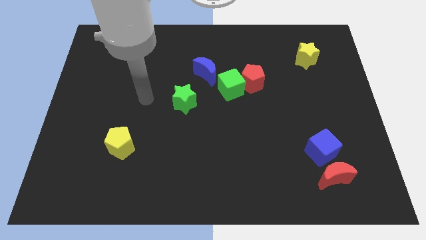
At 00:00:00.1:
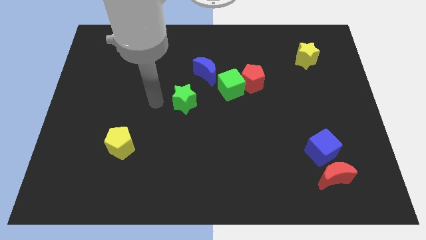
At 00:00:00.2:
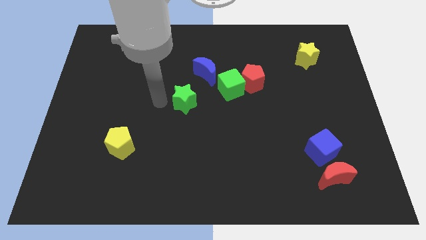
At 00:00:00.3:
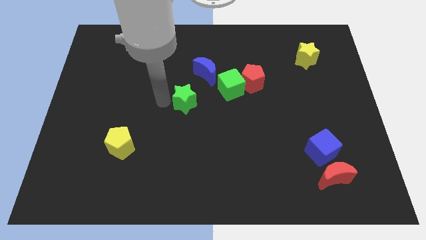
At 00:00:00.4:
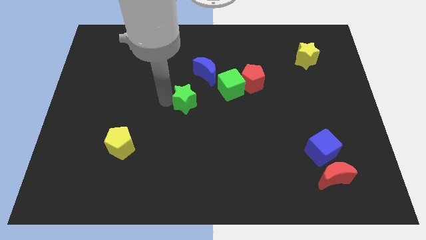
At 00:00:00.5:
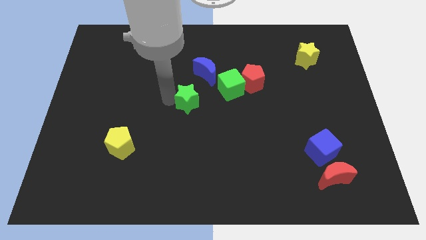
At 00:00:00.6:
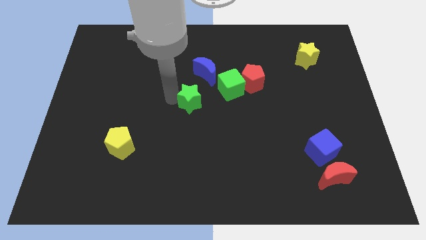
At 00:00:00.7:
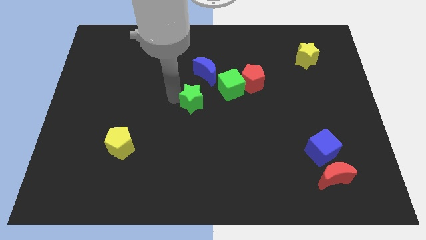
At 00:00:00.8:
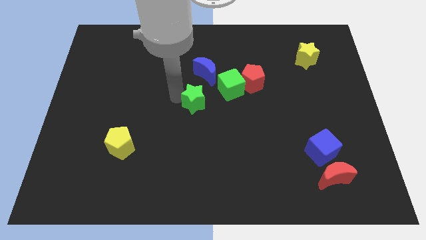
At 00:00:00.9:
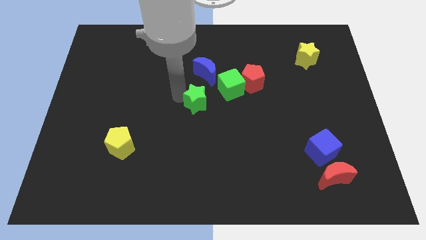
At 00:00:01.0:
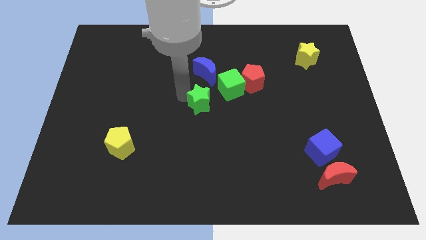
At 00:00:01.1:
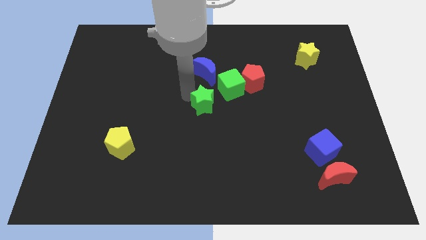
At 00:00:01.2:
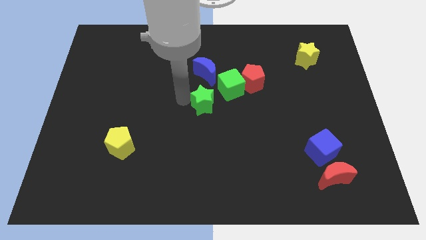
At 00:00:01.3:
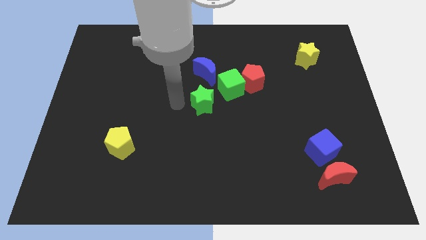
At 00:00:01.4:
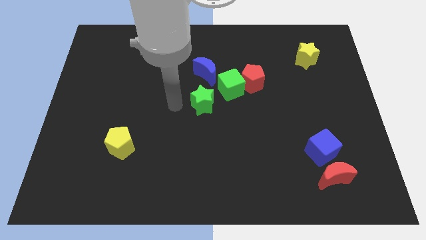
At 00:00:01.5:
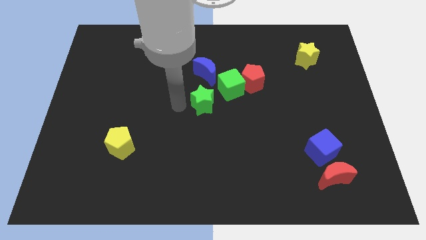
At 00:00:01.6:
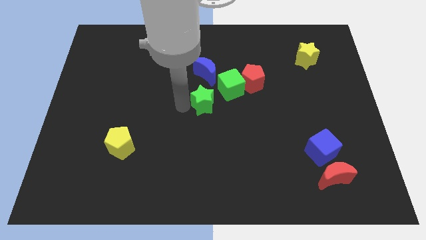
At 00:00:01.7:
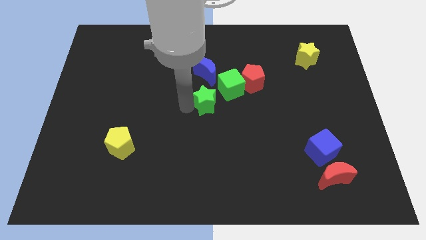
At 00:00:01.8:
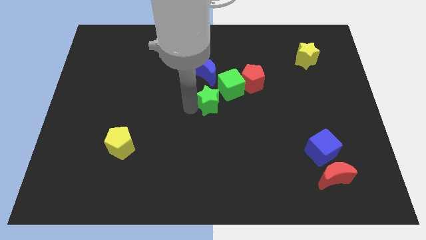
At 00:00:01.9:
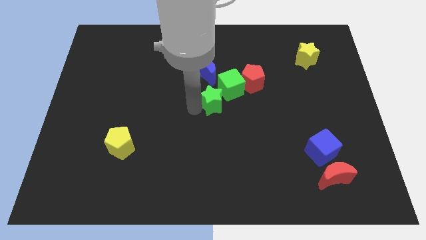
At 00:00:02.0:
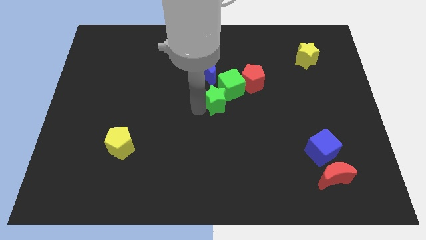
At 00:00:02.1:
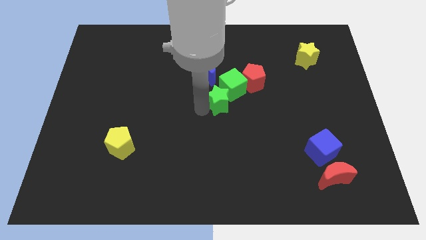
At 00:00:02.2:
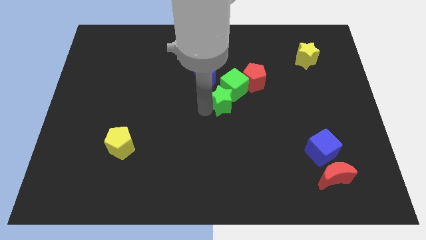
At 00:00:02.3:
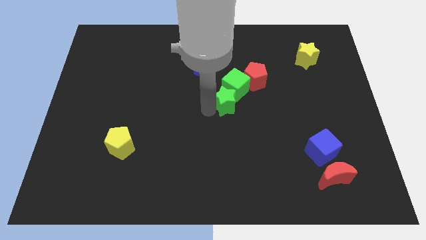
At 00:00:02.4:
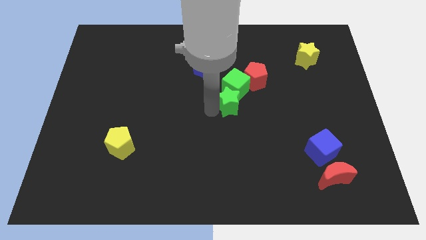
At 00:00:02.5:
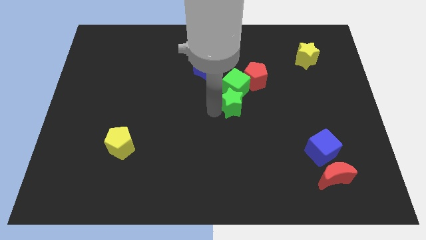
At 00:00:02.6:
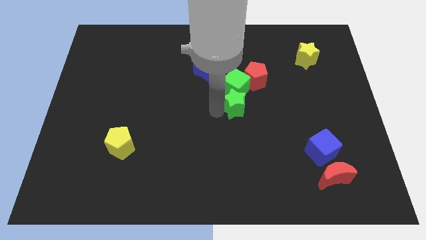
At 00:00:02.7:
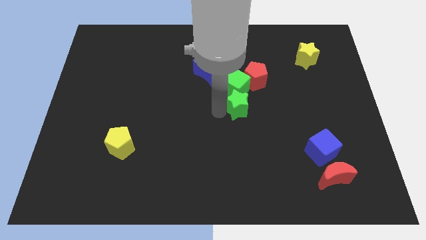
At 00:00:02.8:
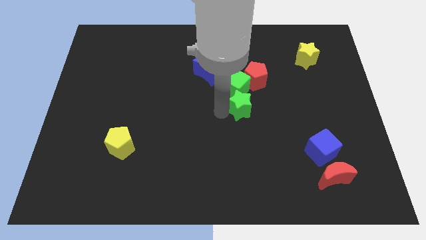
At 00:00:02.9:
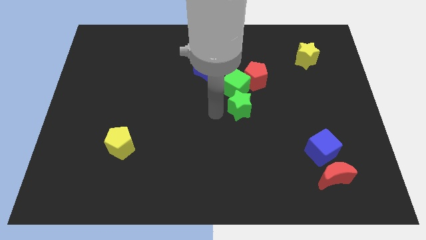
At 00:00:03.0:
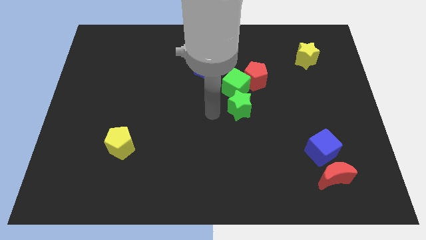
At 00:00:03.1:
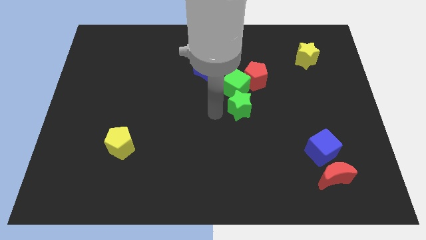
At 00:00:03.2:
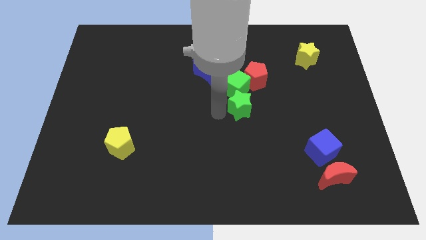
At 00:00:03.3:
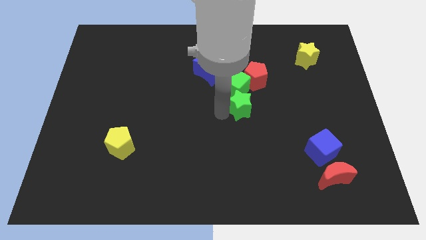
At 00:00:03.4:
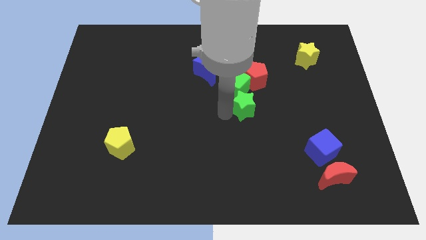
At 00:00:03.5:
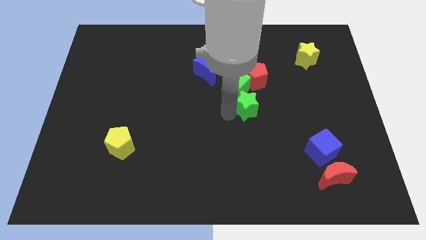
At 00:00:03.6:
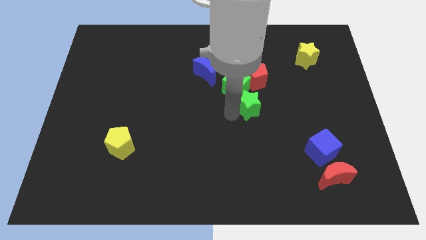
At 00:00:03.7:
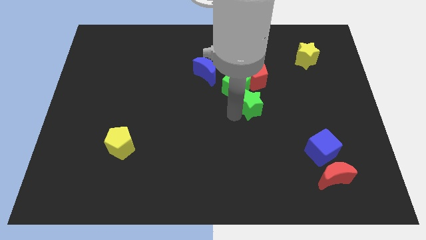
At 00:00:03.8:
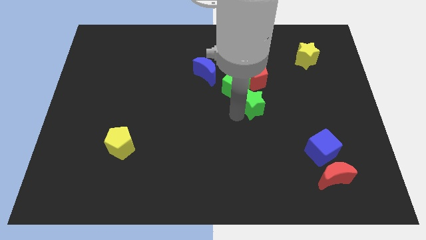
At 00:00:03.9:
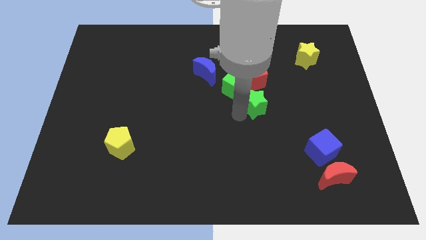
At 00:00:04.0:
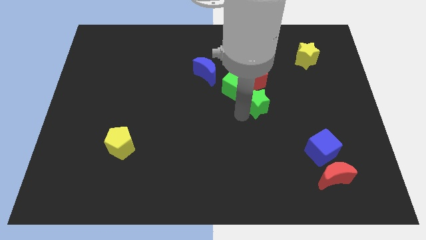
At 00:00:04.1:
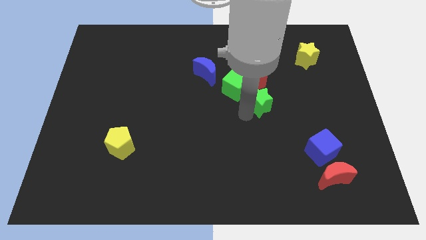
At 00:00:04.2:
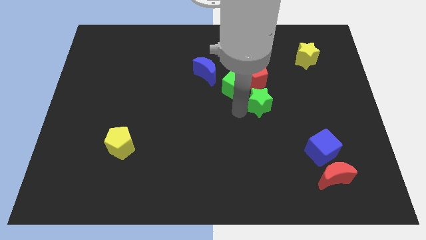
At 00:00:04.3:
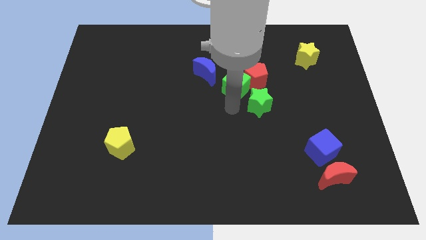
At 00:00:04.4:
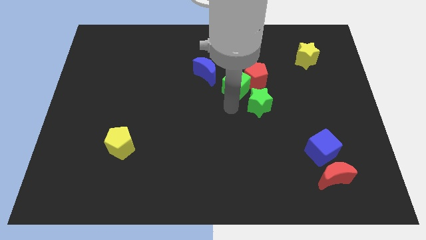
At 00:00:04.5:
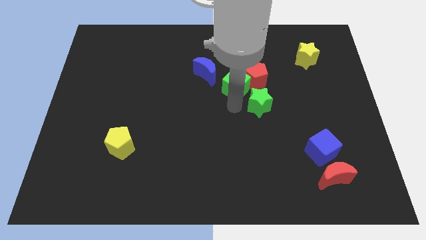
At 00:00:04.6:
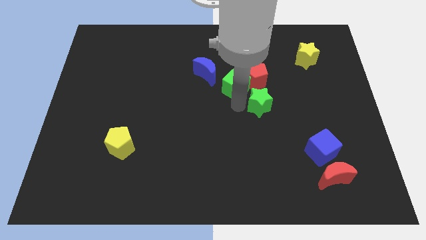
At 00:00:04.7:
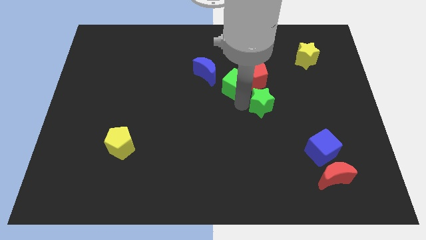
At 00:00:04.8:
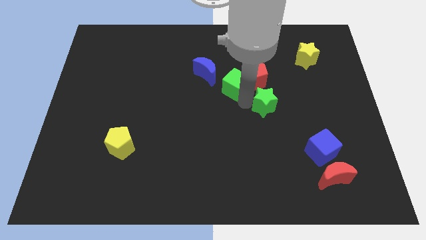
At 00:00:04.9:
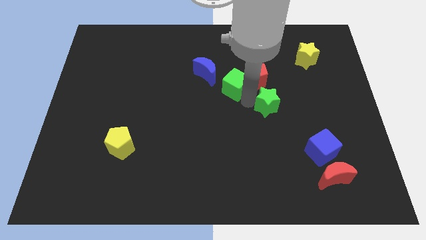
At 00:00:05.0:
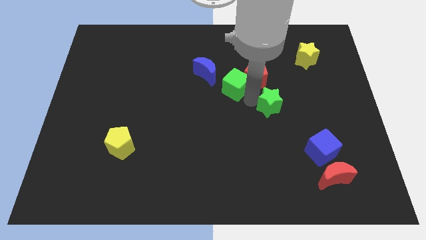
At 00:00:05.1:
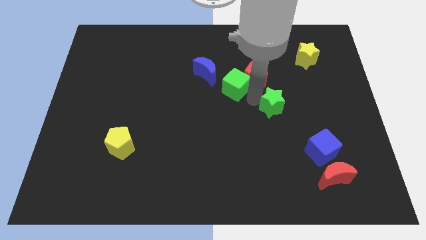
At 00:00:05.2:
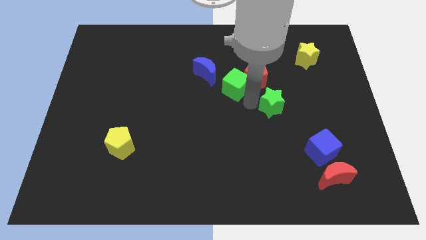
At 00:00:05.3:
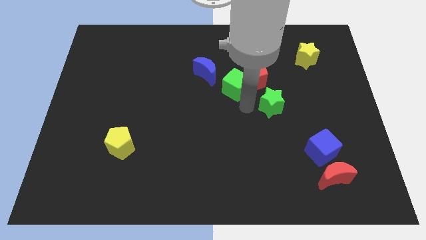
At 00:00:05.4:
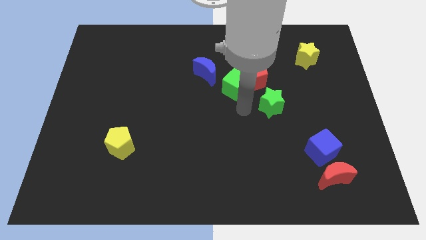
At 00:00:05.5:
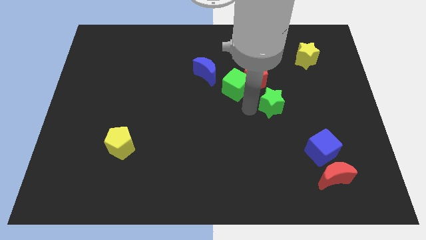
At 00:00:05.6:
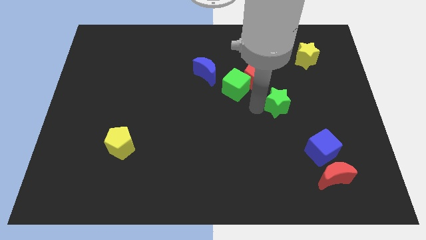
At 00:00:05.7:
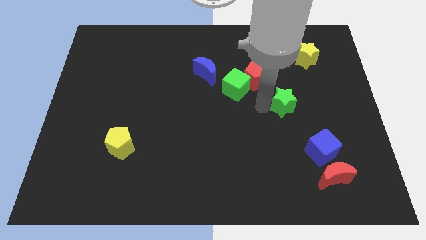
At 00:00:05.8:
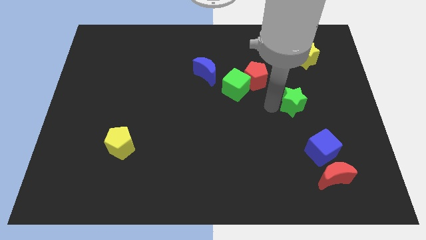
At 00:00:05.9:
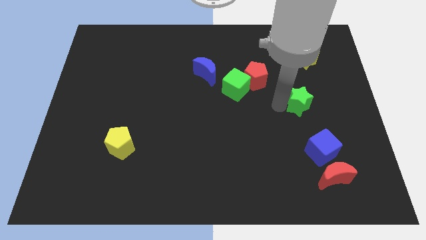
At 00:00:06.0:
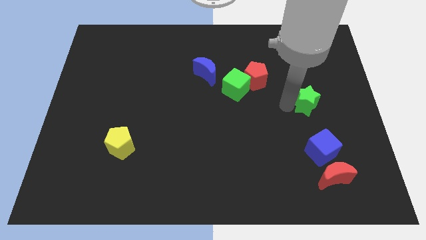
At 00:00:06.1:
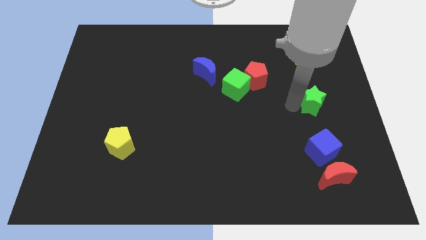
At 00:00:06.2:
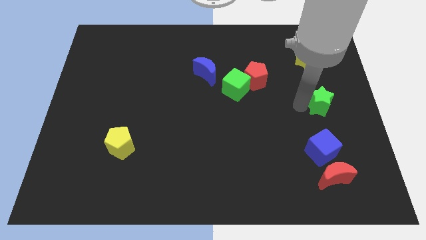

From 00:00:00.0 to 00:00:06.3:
move the green star to the right side

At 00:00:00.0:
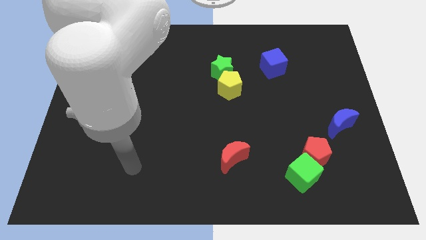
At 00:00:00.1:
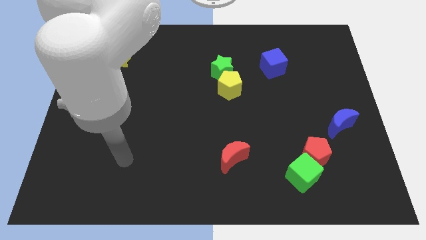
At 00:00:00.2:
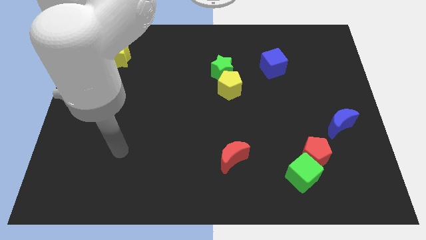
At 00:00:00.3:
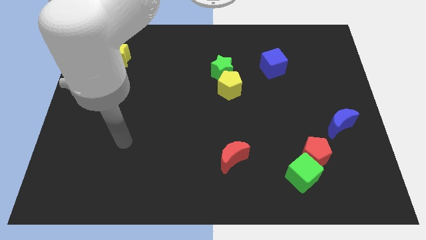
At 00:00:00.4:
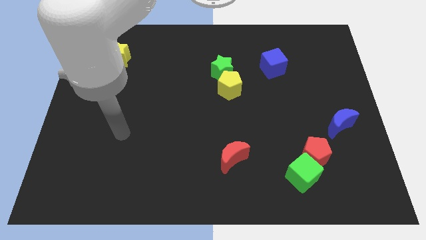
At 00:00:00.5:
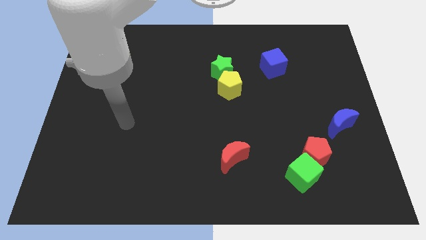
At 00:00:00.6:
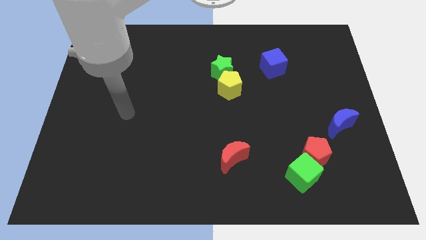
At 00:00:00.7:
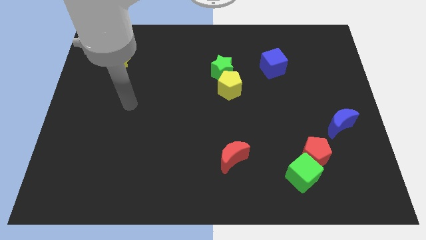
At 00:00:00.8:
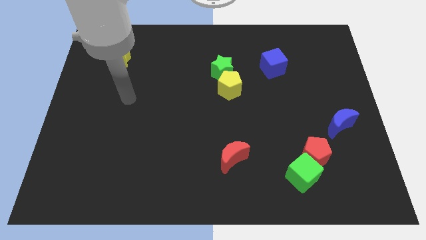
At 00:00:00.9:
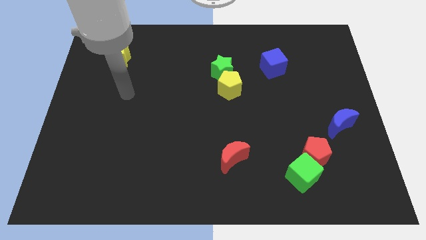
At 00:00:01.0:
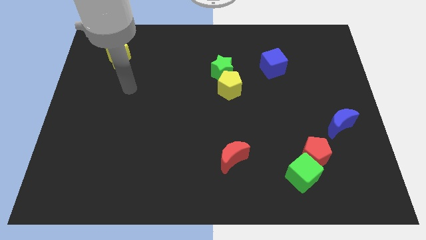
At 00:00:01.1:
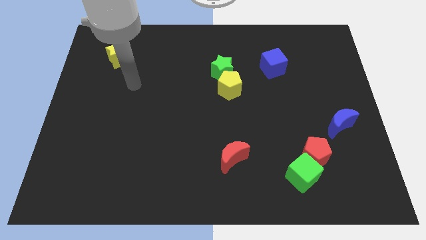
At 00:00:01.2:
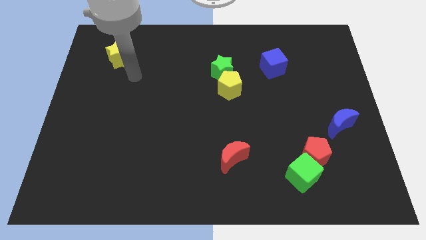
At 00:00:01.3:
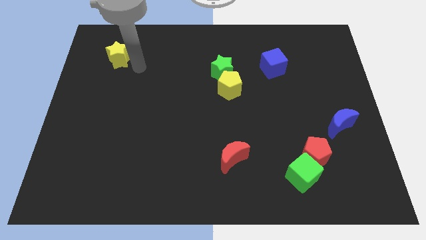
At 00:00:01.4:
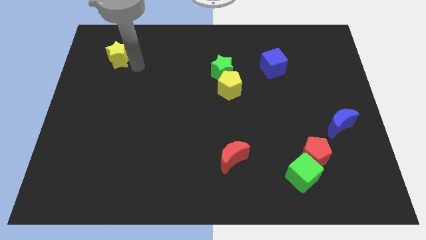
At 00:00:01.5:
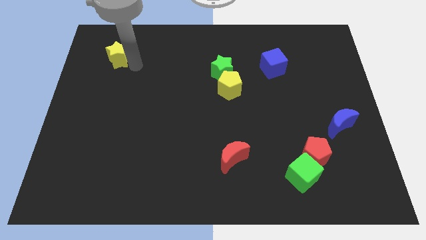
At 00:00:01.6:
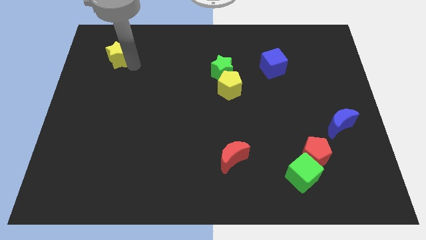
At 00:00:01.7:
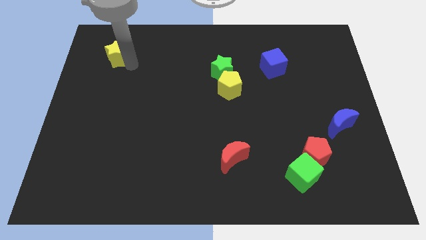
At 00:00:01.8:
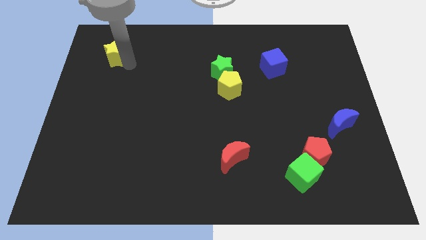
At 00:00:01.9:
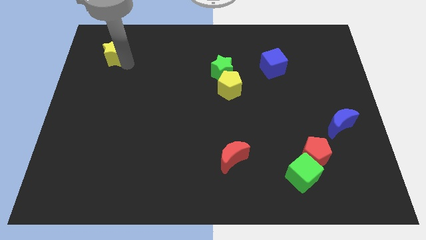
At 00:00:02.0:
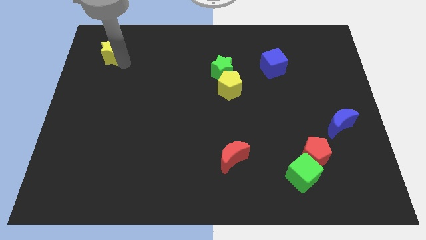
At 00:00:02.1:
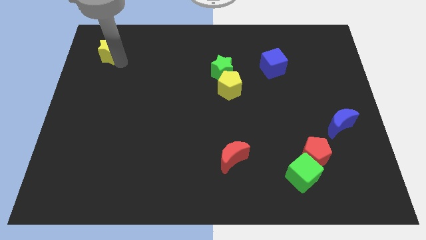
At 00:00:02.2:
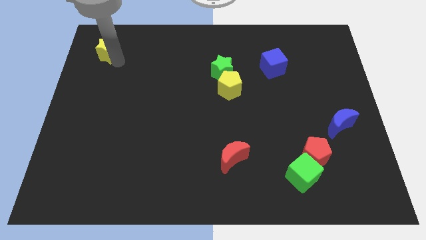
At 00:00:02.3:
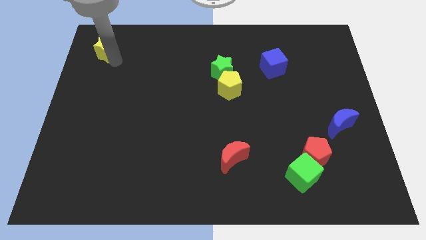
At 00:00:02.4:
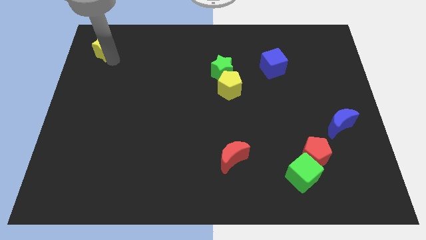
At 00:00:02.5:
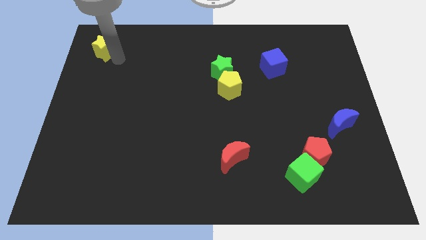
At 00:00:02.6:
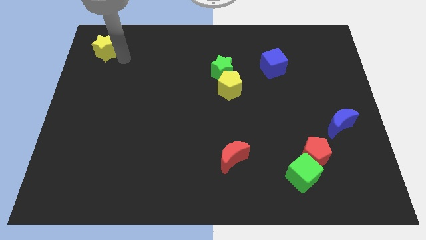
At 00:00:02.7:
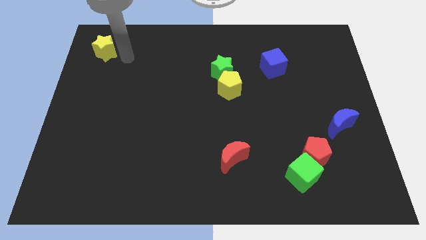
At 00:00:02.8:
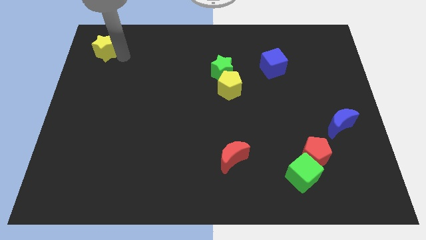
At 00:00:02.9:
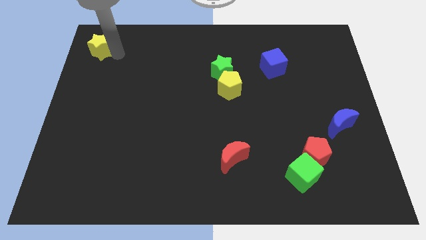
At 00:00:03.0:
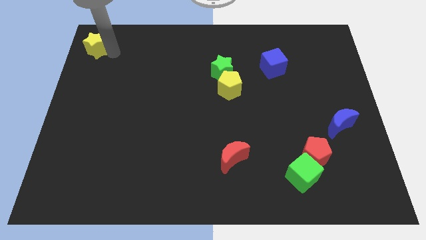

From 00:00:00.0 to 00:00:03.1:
move the yellow star to the top left of the board
